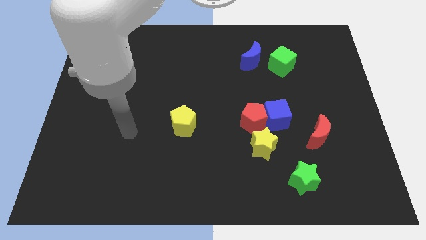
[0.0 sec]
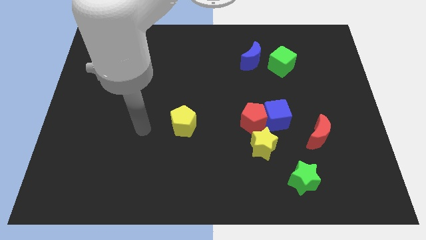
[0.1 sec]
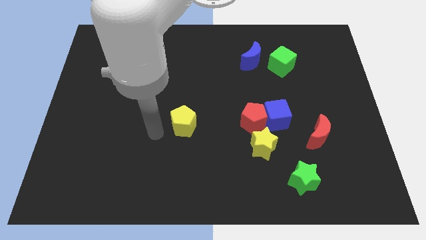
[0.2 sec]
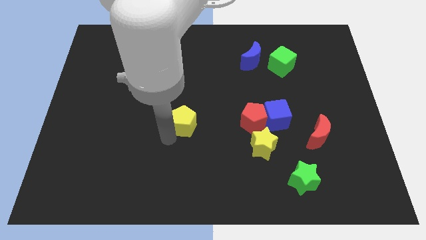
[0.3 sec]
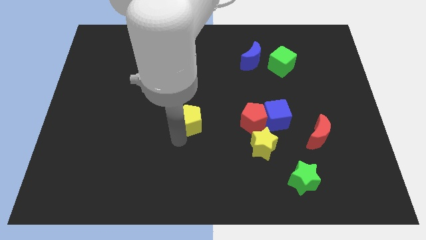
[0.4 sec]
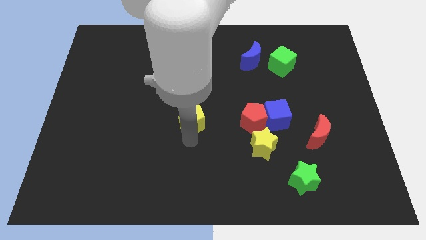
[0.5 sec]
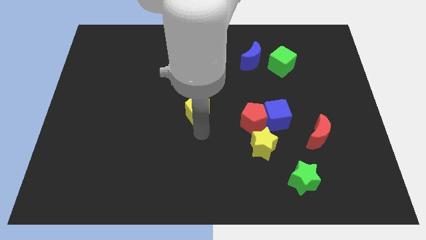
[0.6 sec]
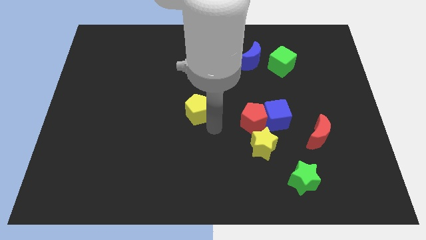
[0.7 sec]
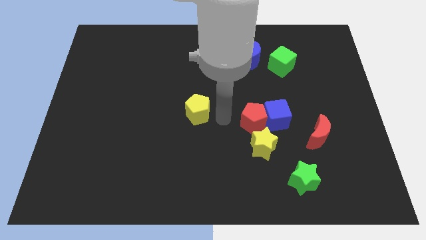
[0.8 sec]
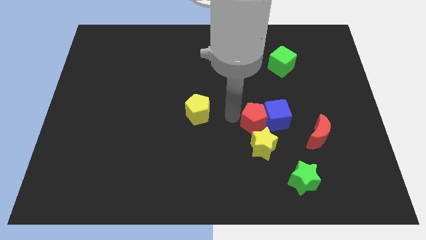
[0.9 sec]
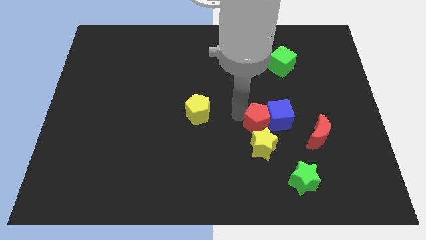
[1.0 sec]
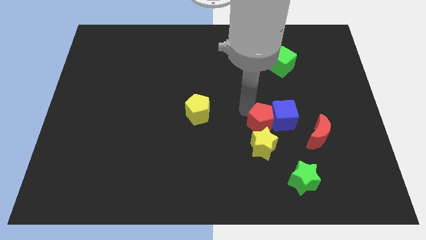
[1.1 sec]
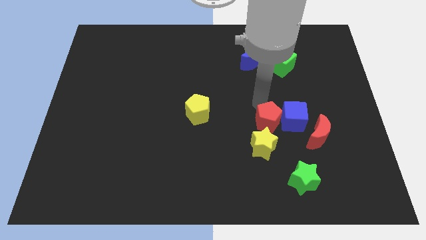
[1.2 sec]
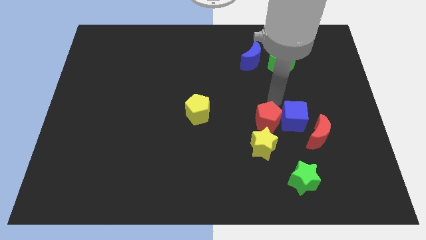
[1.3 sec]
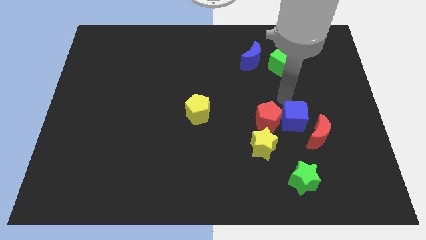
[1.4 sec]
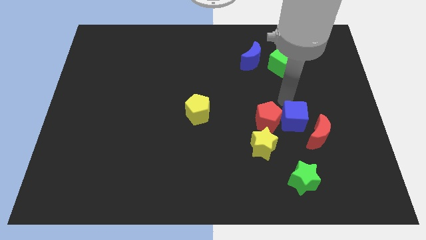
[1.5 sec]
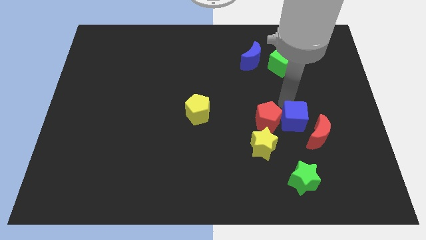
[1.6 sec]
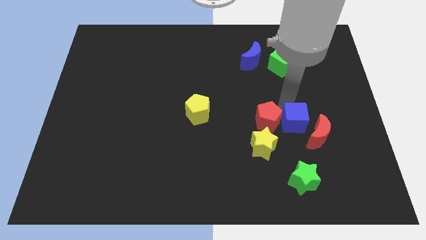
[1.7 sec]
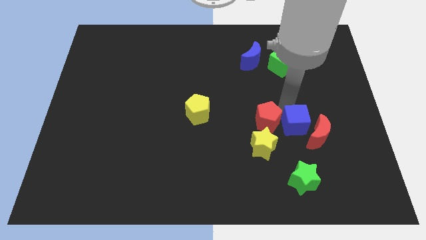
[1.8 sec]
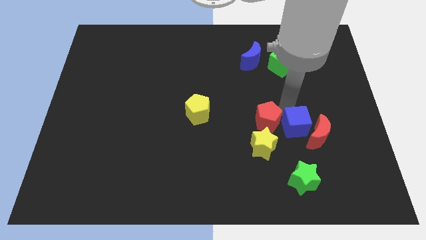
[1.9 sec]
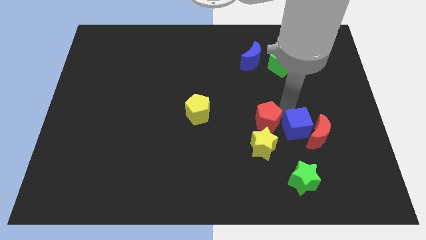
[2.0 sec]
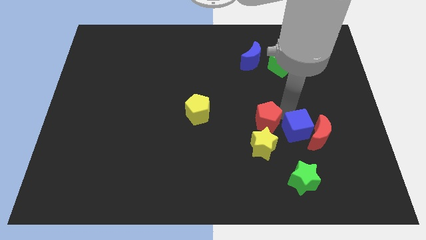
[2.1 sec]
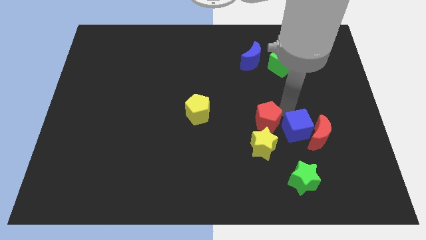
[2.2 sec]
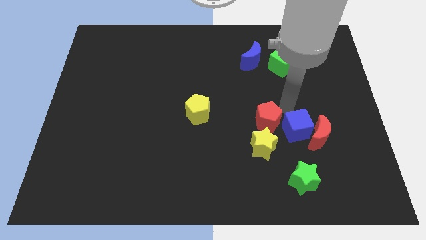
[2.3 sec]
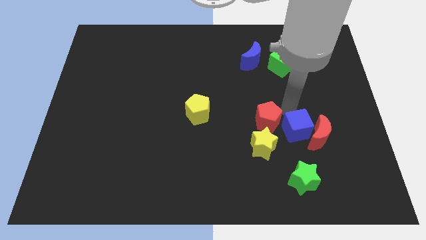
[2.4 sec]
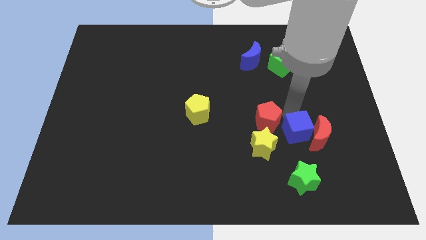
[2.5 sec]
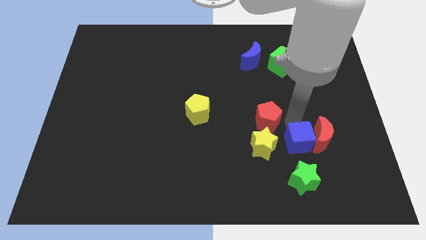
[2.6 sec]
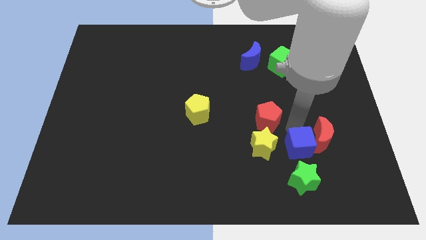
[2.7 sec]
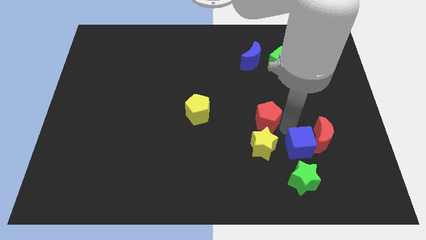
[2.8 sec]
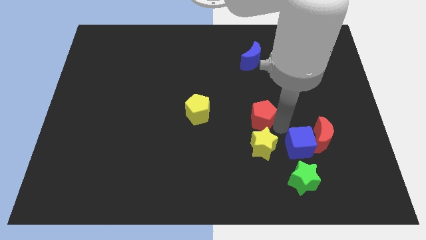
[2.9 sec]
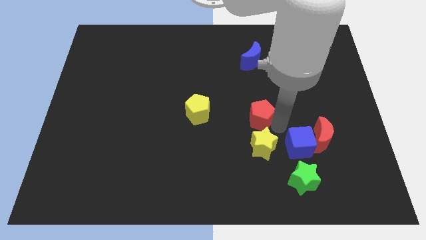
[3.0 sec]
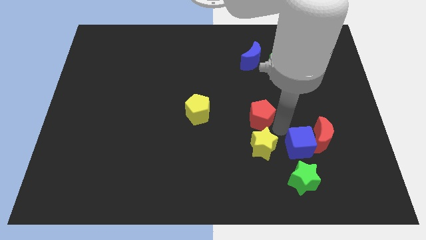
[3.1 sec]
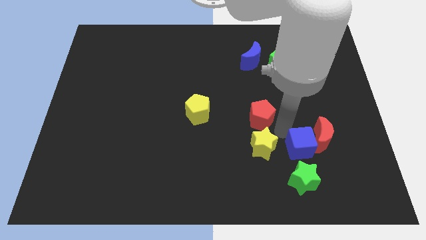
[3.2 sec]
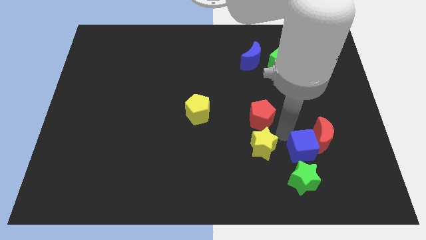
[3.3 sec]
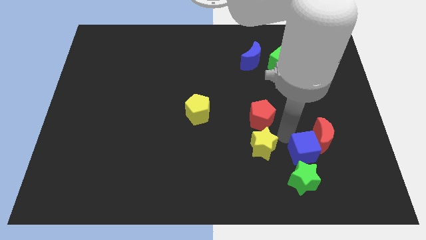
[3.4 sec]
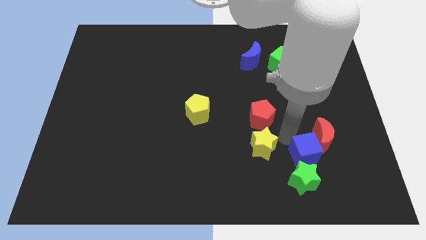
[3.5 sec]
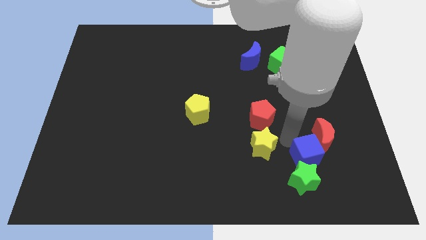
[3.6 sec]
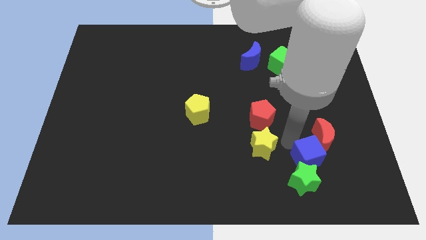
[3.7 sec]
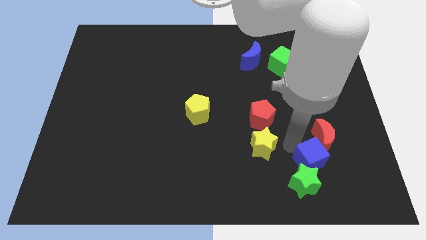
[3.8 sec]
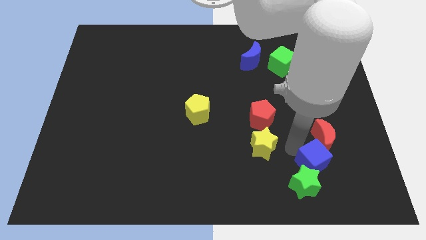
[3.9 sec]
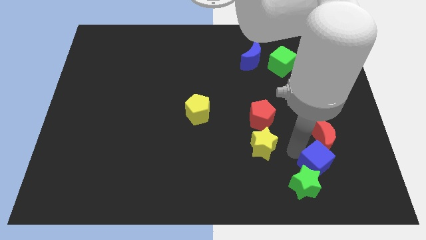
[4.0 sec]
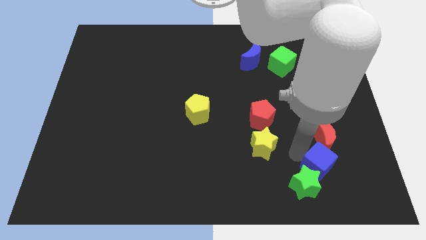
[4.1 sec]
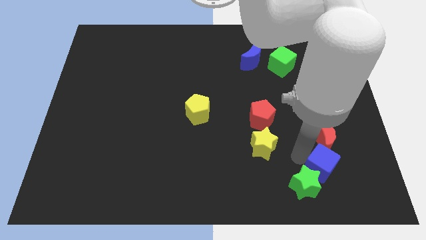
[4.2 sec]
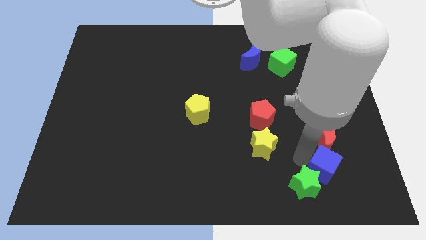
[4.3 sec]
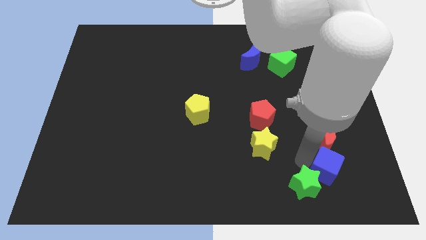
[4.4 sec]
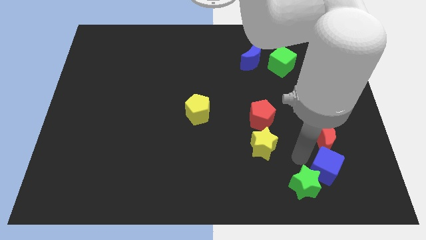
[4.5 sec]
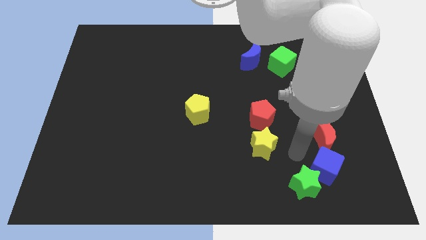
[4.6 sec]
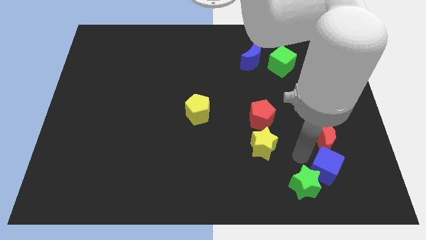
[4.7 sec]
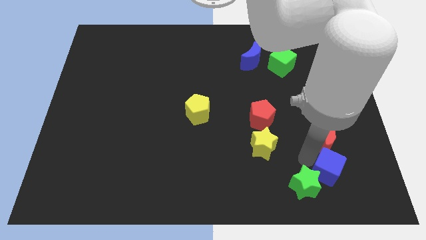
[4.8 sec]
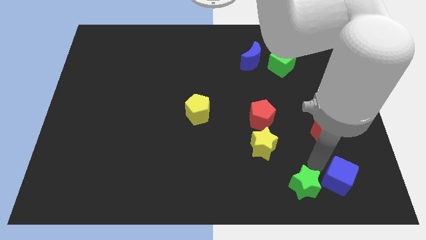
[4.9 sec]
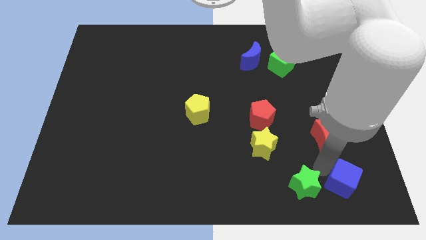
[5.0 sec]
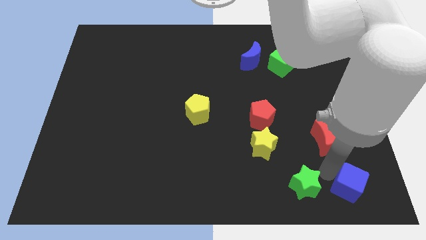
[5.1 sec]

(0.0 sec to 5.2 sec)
move the blue cube to the bottom right

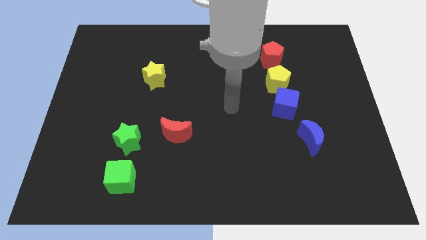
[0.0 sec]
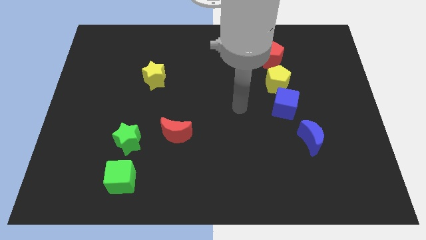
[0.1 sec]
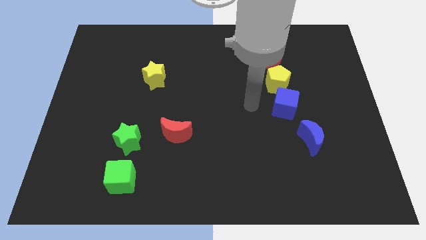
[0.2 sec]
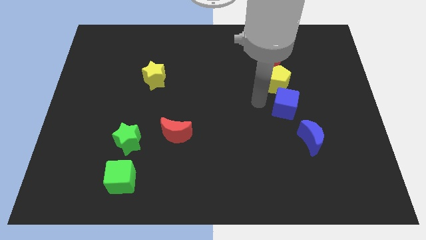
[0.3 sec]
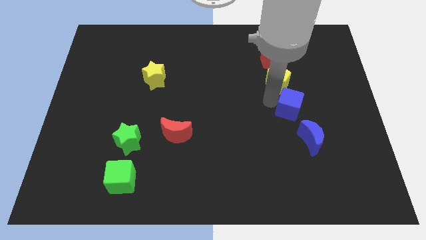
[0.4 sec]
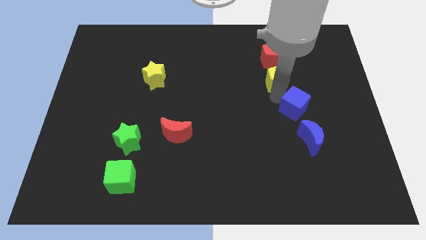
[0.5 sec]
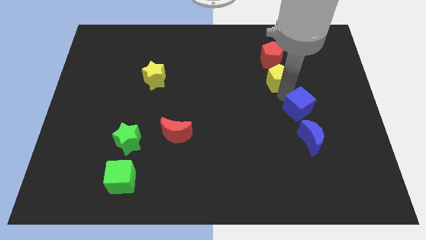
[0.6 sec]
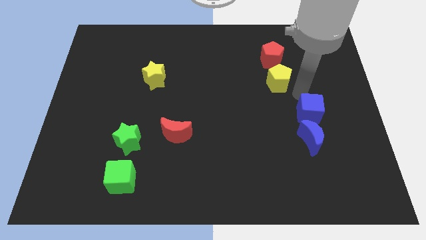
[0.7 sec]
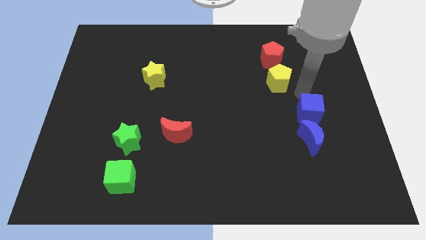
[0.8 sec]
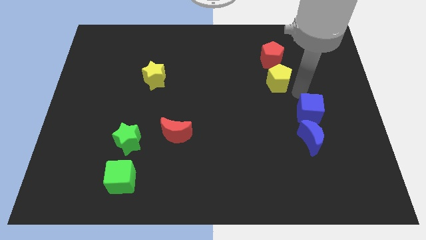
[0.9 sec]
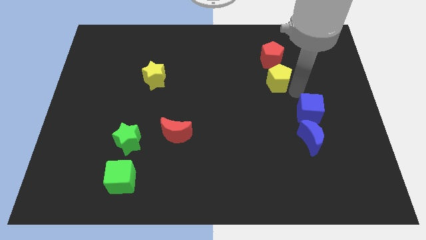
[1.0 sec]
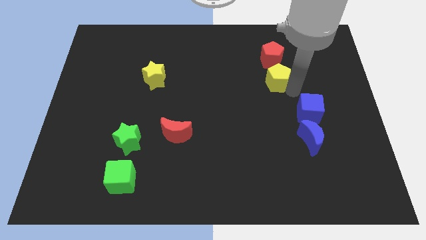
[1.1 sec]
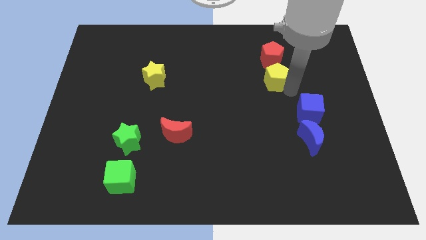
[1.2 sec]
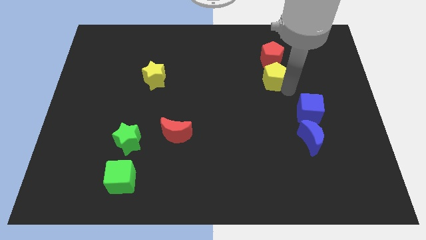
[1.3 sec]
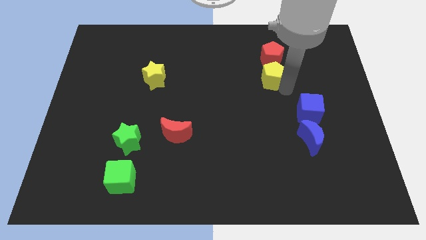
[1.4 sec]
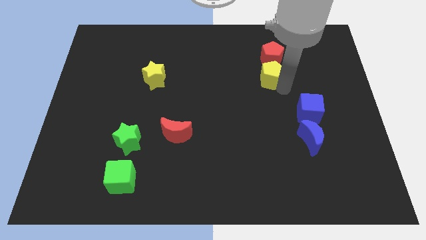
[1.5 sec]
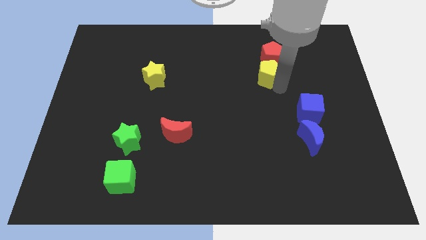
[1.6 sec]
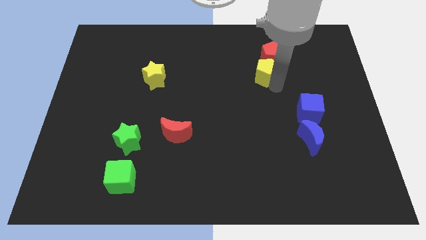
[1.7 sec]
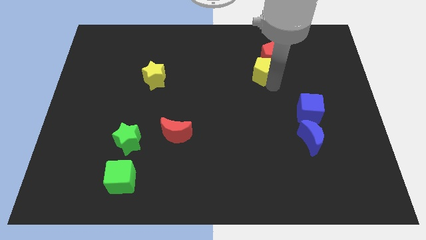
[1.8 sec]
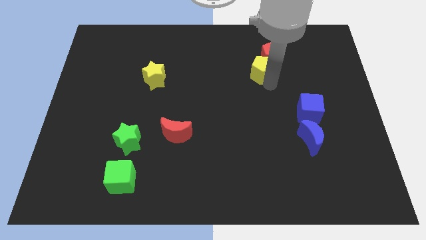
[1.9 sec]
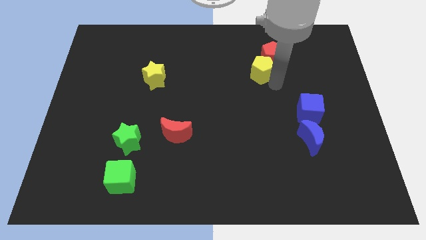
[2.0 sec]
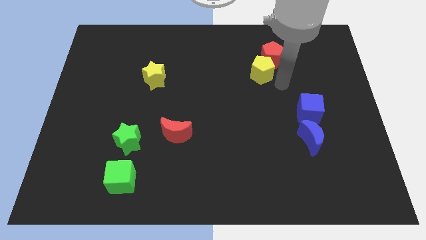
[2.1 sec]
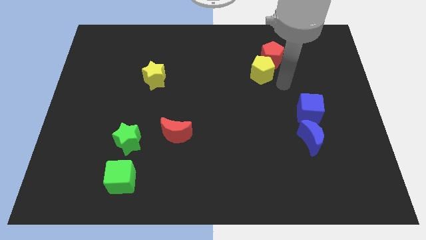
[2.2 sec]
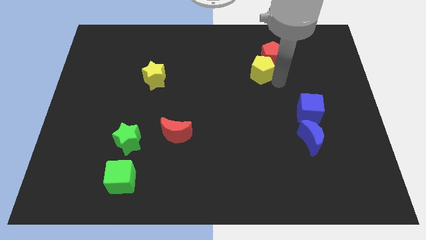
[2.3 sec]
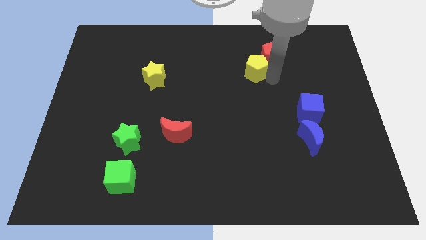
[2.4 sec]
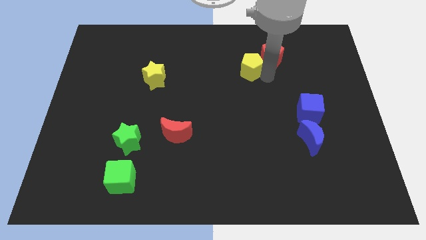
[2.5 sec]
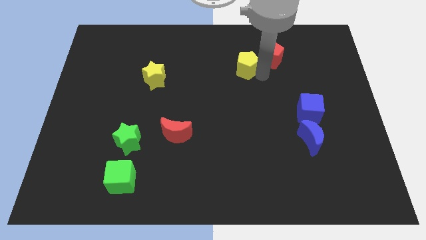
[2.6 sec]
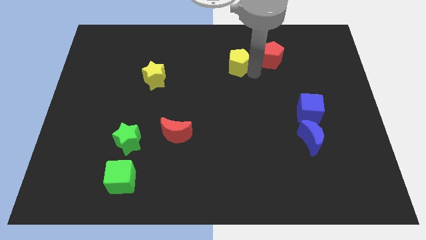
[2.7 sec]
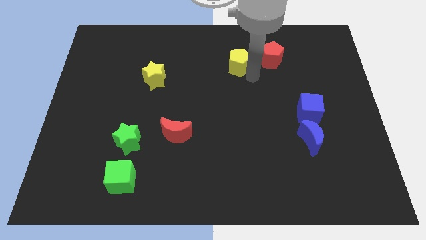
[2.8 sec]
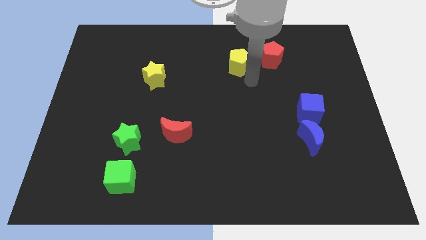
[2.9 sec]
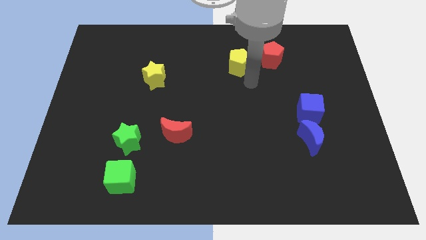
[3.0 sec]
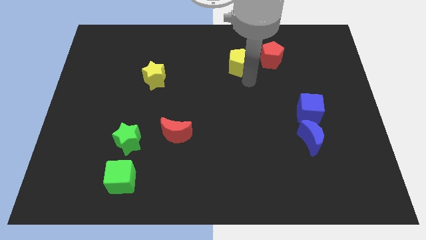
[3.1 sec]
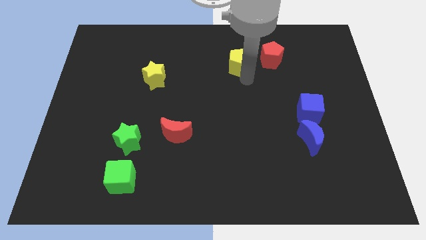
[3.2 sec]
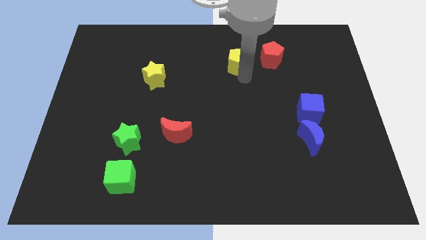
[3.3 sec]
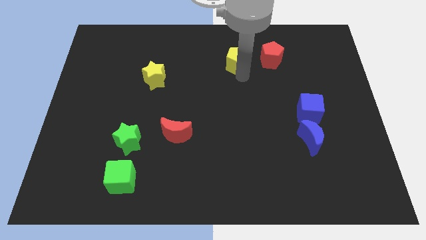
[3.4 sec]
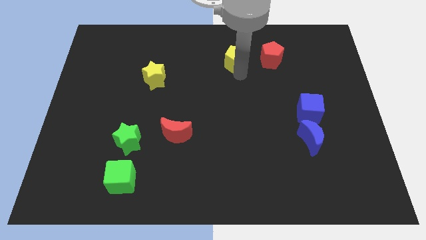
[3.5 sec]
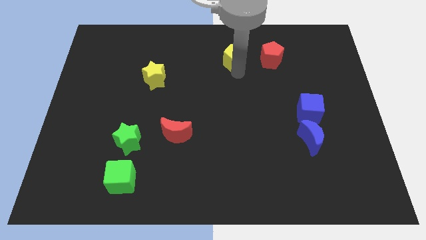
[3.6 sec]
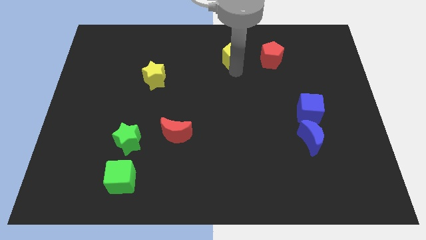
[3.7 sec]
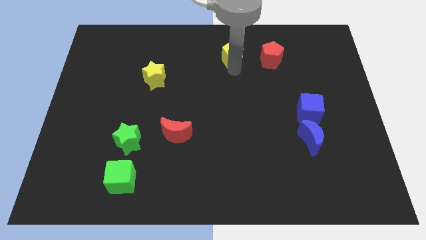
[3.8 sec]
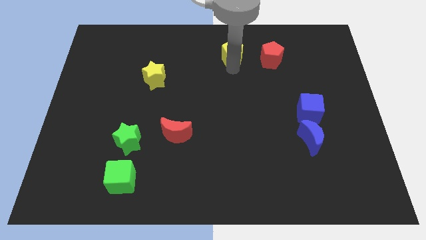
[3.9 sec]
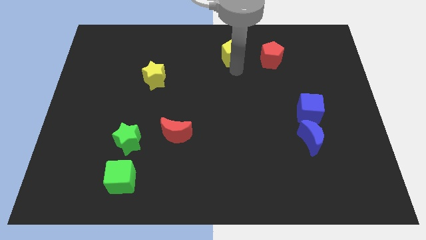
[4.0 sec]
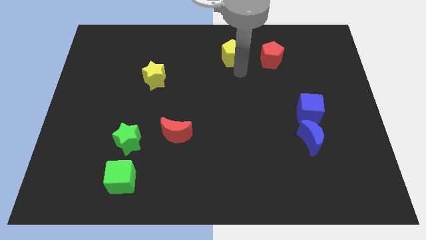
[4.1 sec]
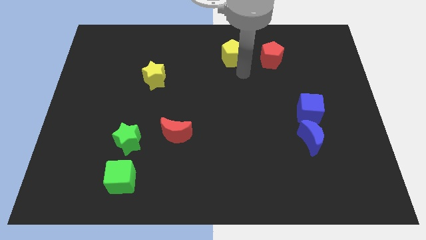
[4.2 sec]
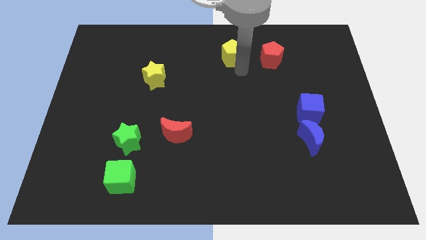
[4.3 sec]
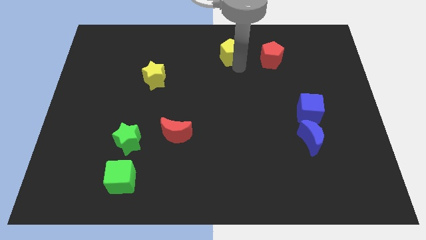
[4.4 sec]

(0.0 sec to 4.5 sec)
put the yellow pentagon to the top
